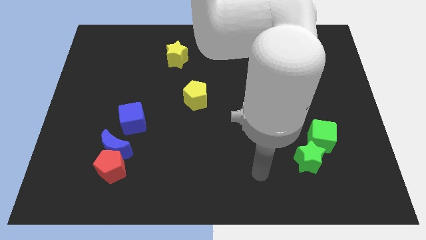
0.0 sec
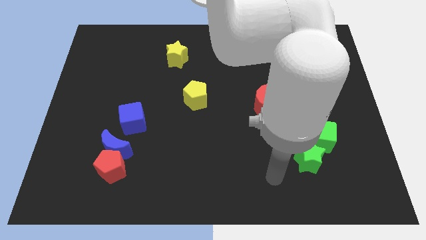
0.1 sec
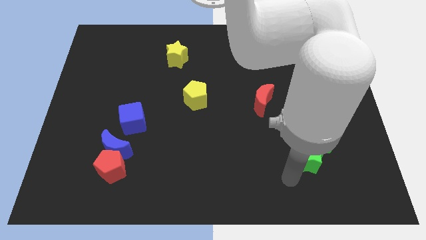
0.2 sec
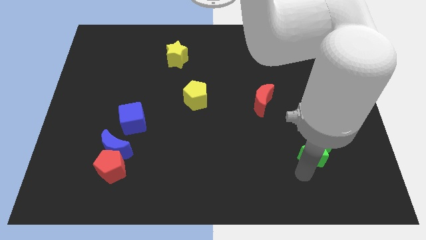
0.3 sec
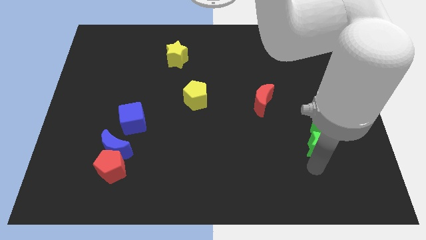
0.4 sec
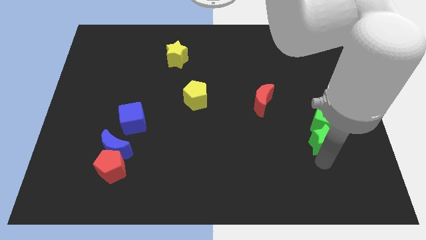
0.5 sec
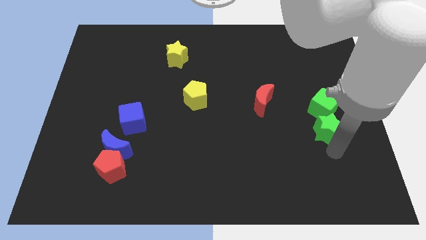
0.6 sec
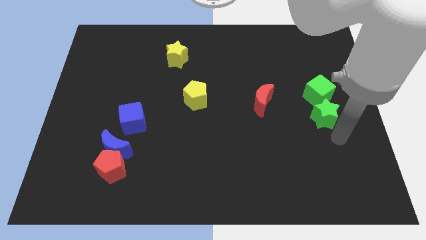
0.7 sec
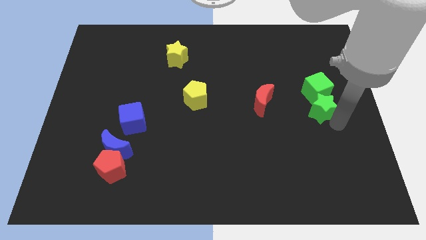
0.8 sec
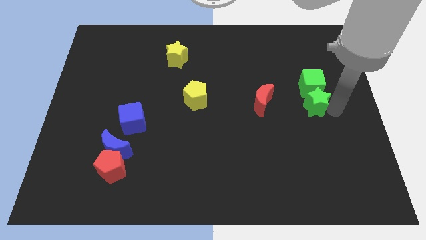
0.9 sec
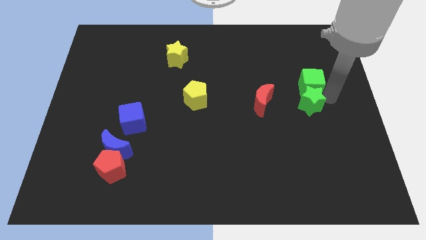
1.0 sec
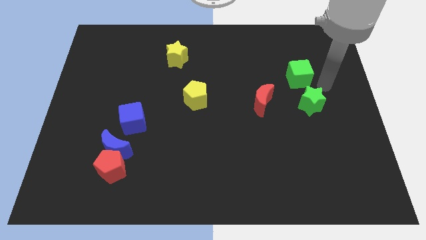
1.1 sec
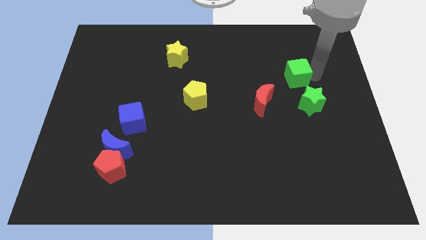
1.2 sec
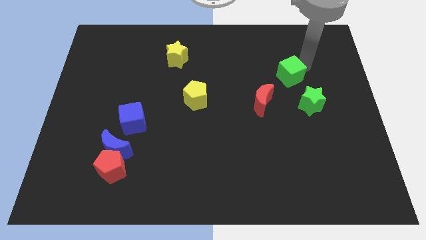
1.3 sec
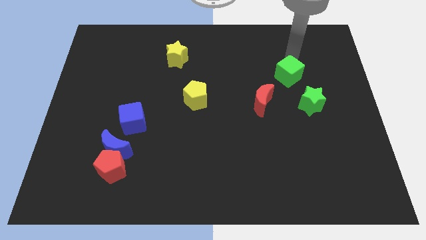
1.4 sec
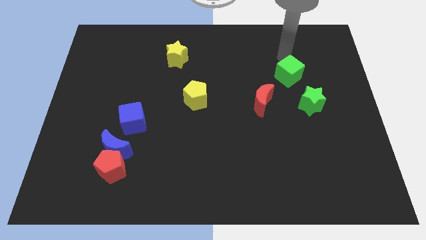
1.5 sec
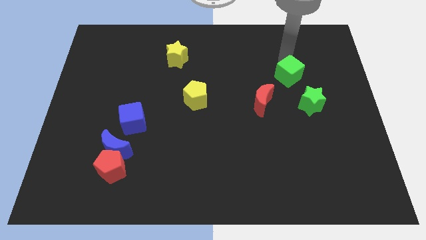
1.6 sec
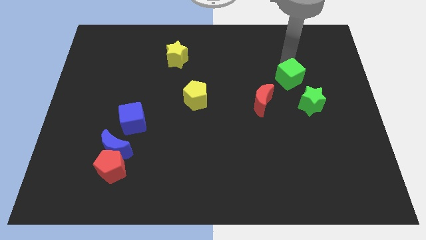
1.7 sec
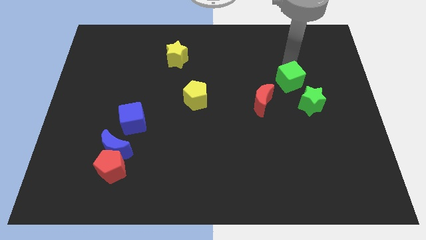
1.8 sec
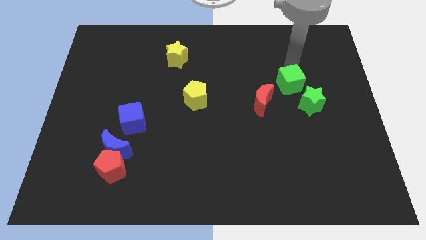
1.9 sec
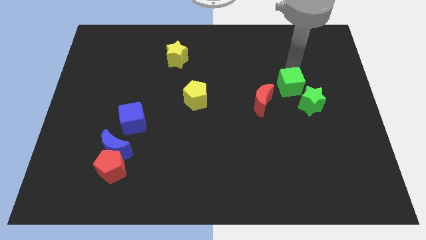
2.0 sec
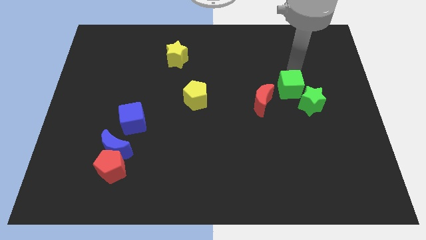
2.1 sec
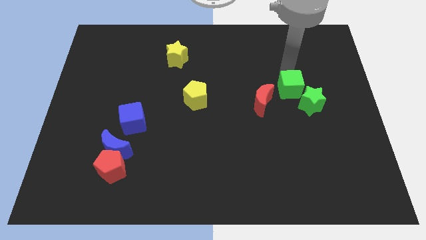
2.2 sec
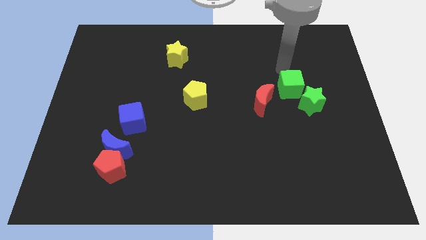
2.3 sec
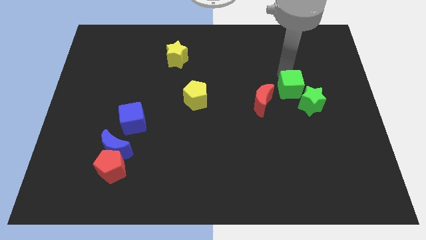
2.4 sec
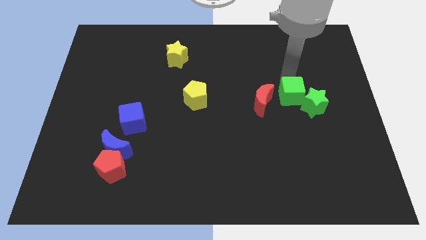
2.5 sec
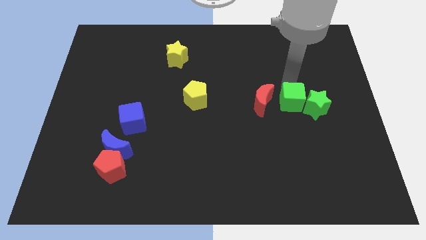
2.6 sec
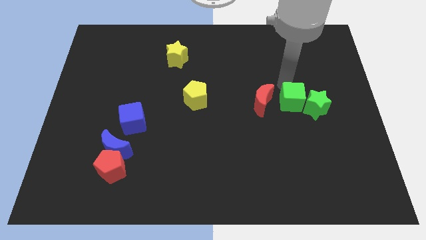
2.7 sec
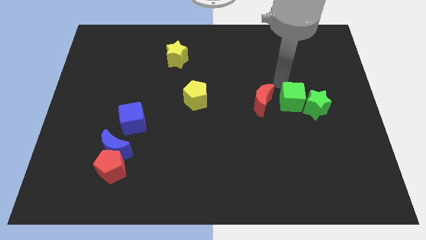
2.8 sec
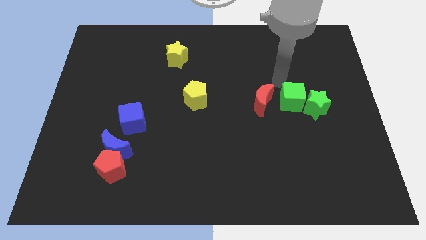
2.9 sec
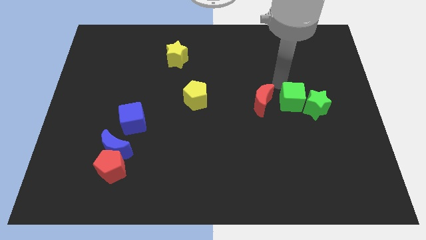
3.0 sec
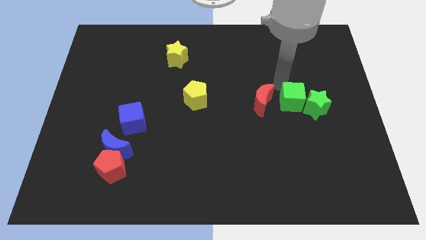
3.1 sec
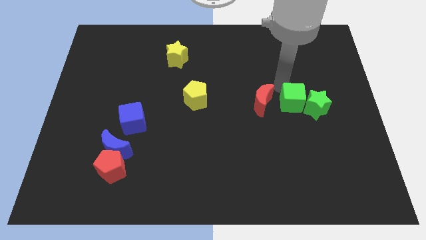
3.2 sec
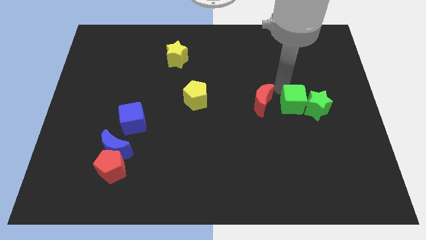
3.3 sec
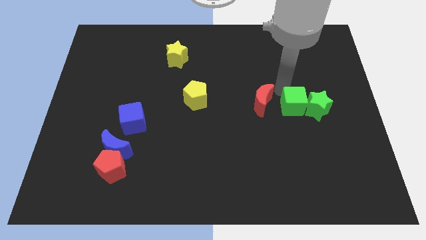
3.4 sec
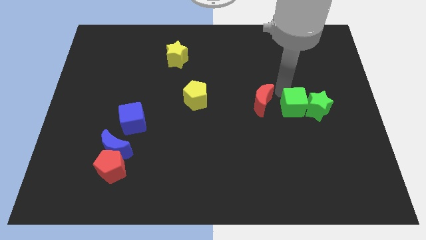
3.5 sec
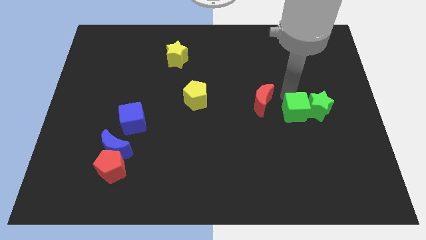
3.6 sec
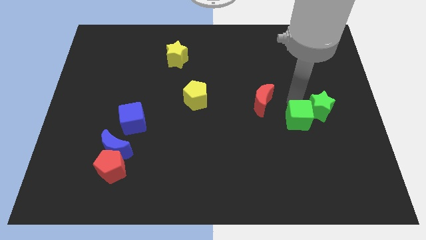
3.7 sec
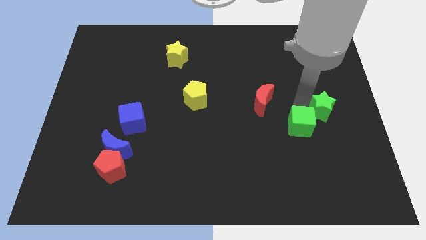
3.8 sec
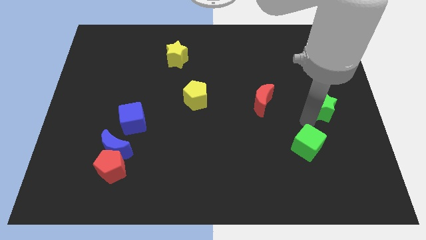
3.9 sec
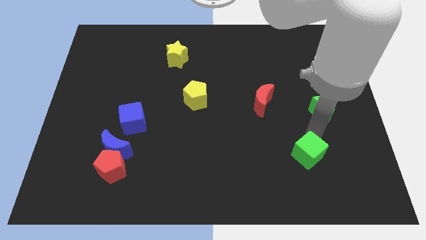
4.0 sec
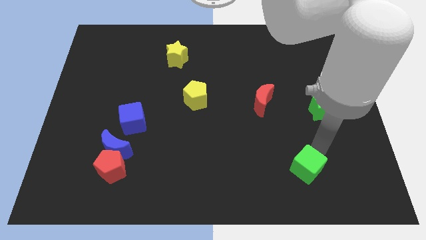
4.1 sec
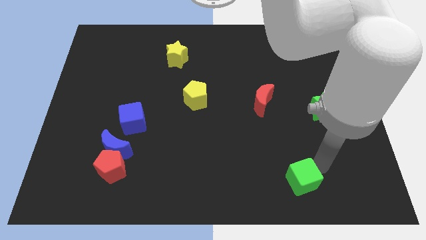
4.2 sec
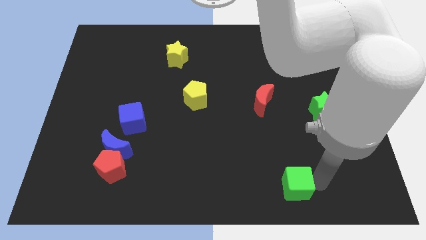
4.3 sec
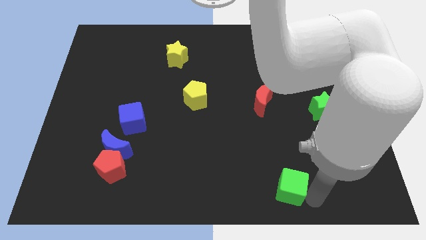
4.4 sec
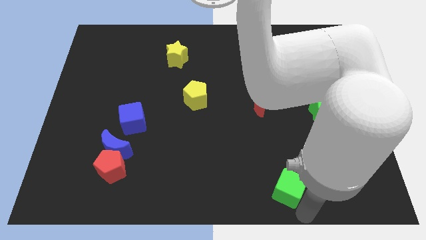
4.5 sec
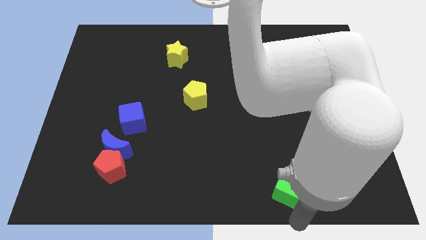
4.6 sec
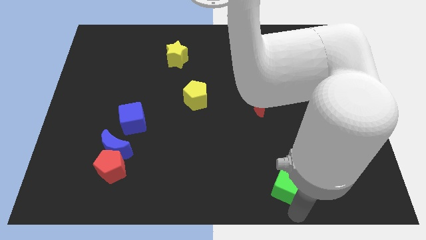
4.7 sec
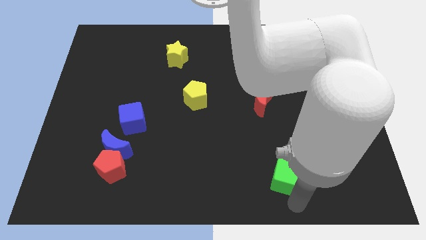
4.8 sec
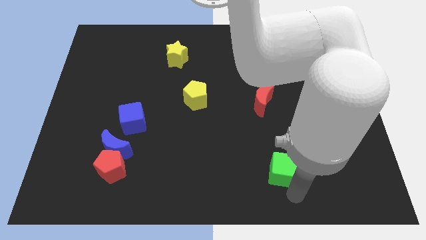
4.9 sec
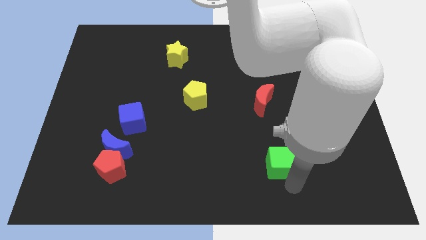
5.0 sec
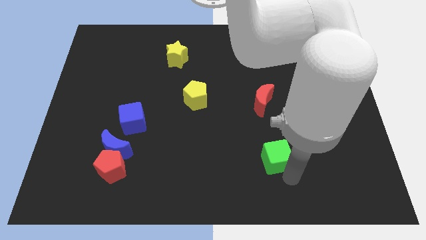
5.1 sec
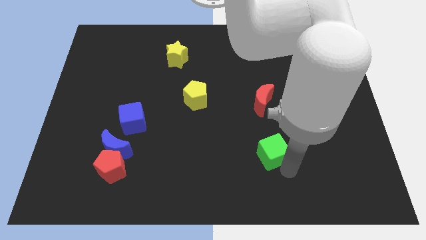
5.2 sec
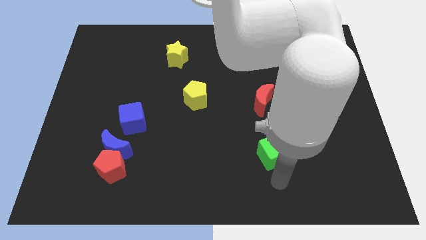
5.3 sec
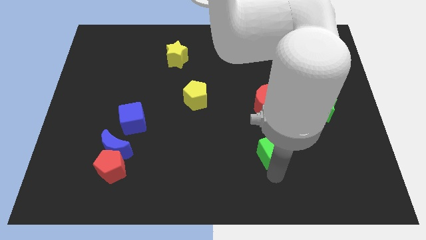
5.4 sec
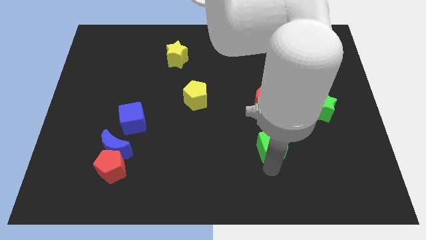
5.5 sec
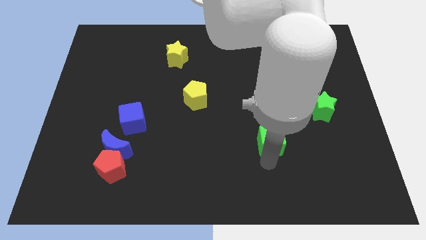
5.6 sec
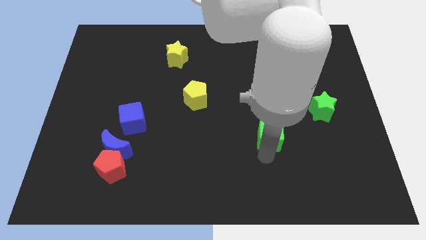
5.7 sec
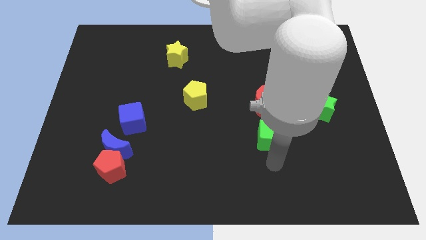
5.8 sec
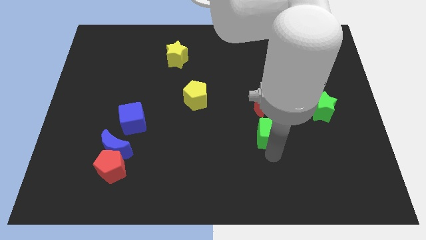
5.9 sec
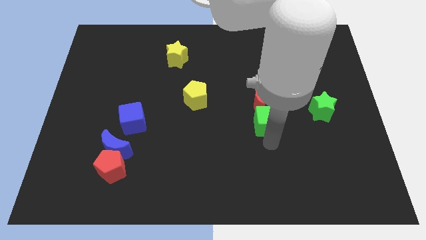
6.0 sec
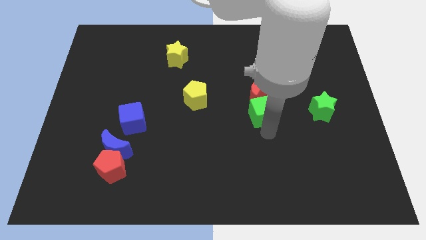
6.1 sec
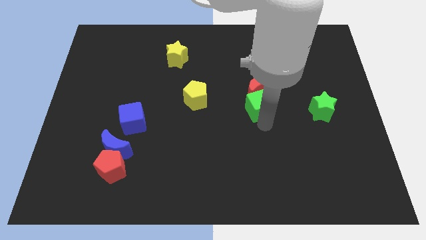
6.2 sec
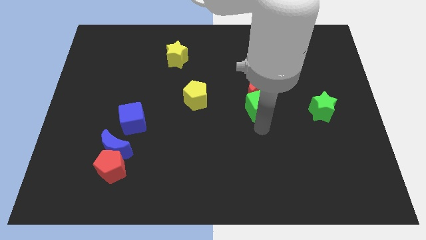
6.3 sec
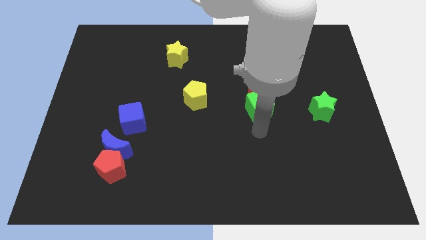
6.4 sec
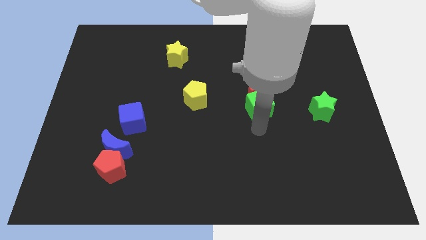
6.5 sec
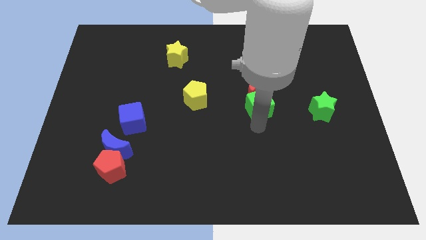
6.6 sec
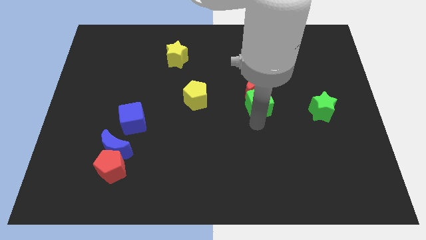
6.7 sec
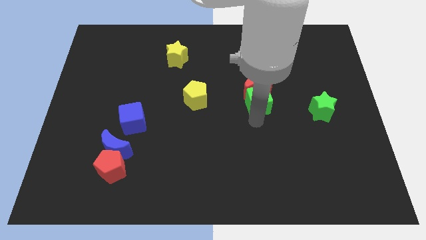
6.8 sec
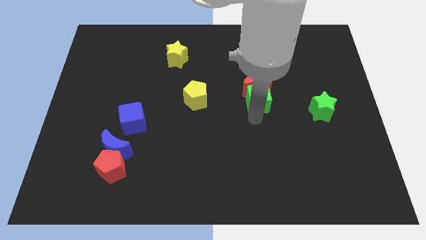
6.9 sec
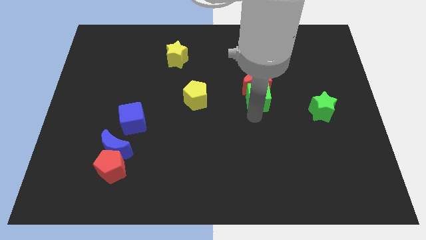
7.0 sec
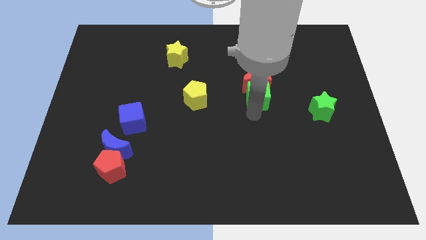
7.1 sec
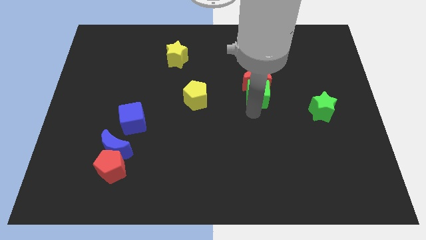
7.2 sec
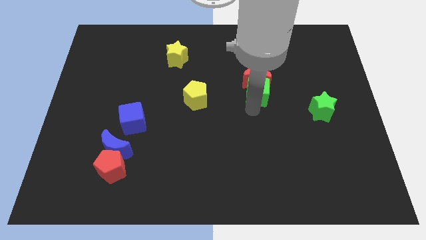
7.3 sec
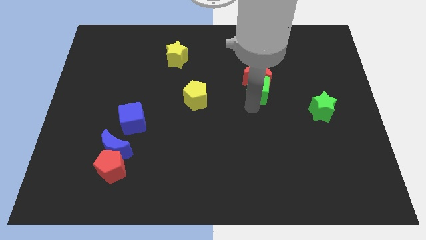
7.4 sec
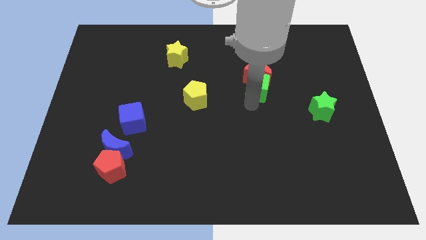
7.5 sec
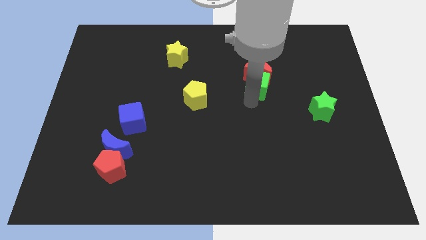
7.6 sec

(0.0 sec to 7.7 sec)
slide the green cube upwards and left diagonally

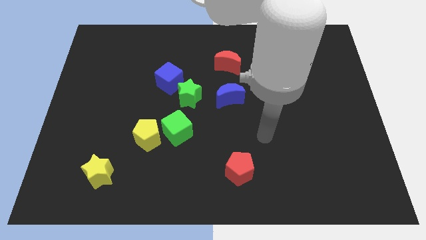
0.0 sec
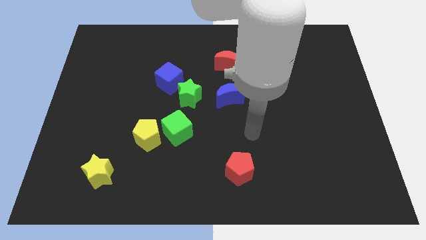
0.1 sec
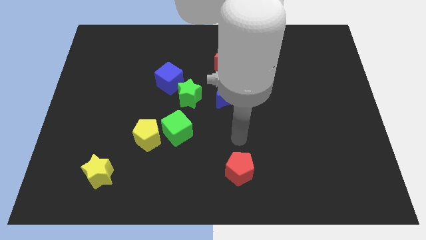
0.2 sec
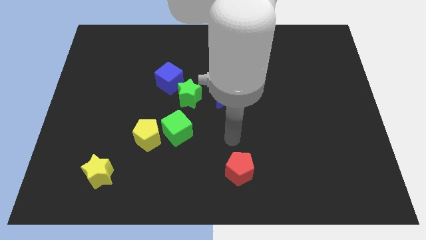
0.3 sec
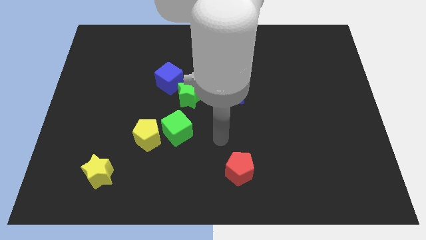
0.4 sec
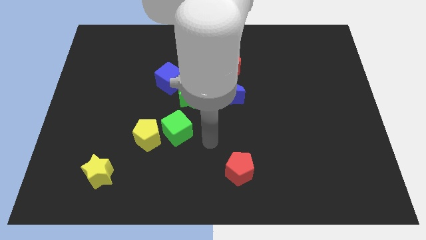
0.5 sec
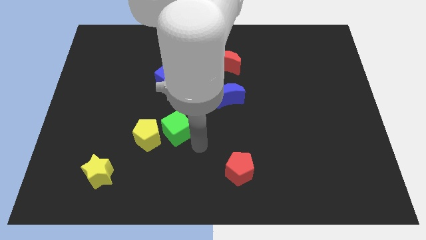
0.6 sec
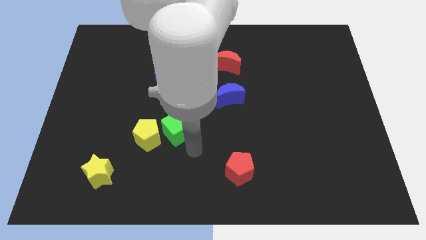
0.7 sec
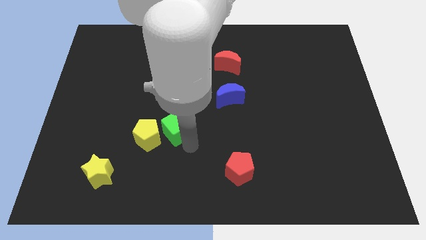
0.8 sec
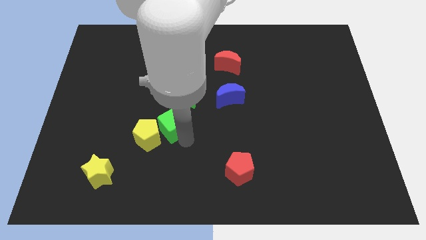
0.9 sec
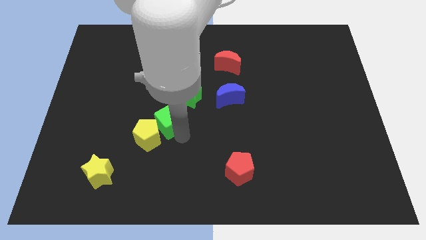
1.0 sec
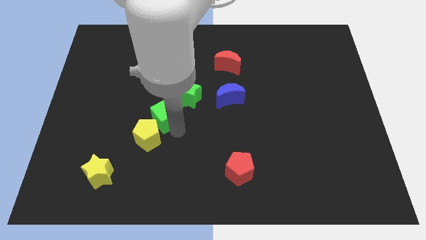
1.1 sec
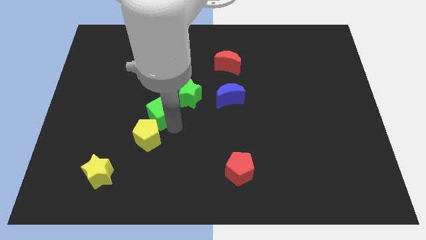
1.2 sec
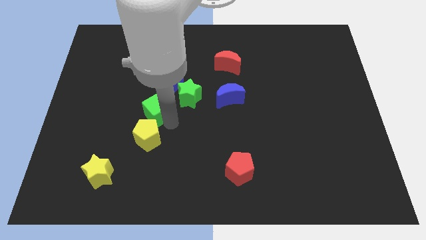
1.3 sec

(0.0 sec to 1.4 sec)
move the green cube a little diagonally up and left
